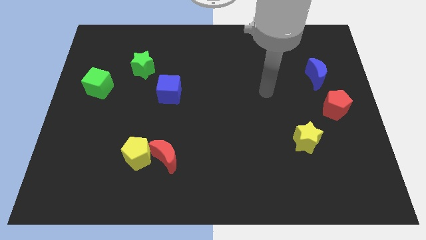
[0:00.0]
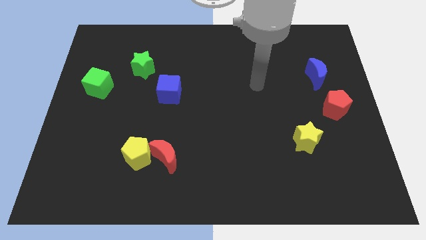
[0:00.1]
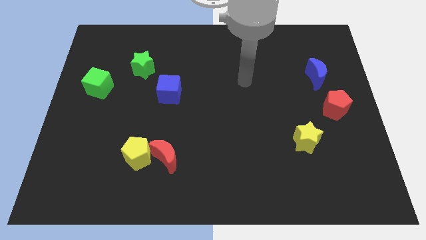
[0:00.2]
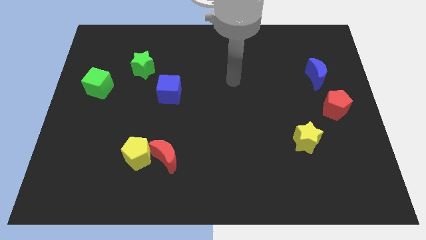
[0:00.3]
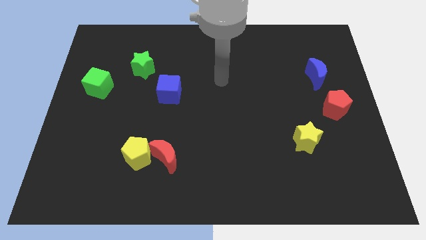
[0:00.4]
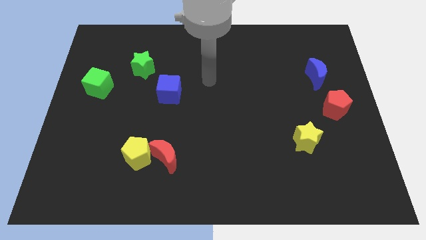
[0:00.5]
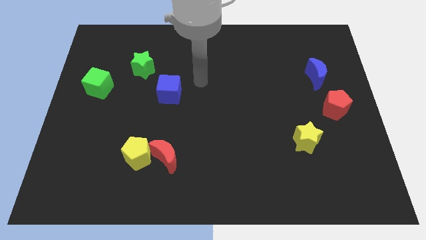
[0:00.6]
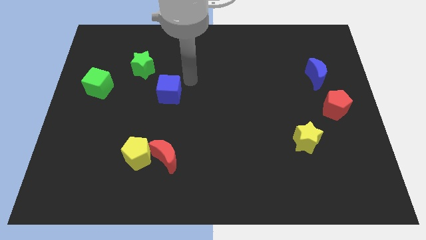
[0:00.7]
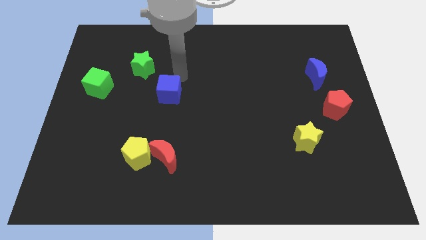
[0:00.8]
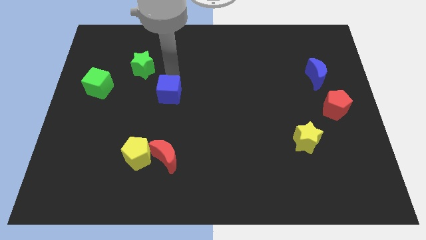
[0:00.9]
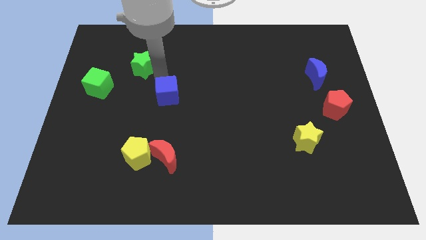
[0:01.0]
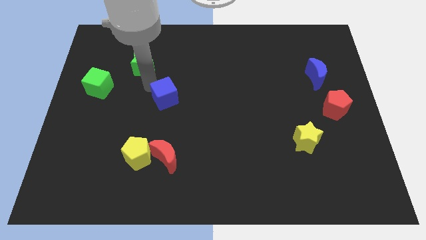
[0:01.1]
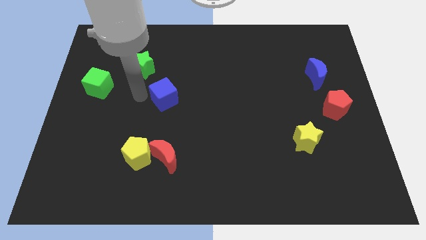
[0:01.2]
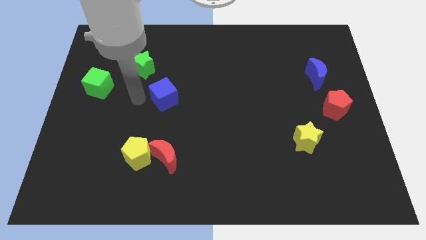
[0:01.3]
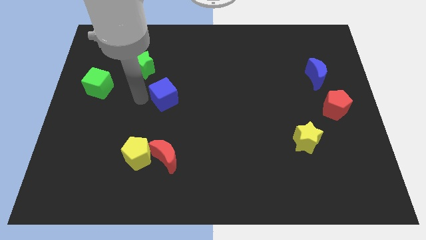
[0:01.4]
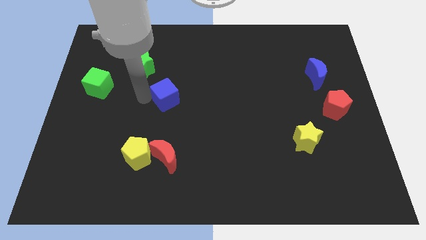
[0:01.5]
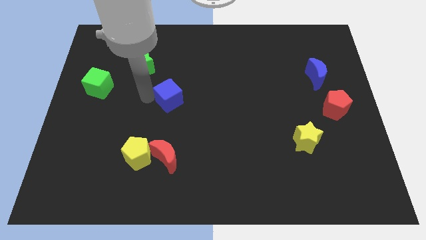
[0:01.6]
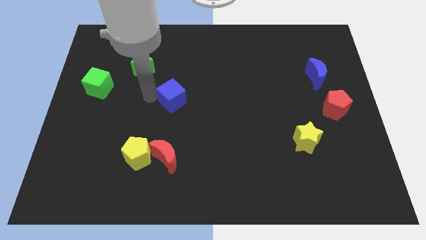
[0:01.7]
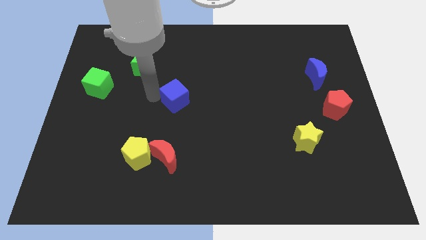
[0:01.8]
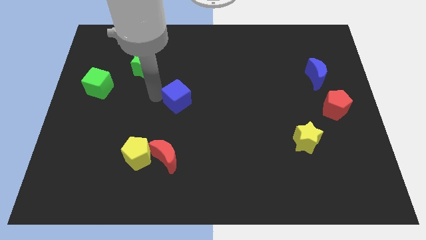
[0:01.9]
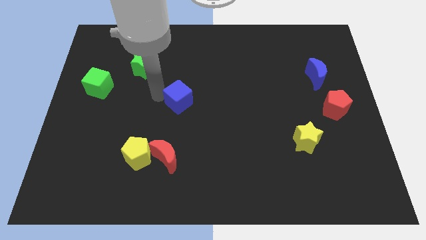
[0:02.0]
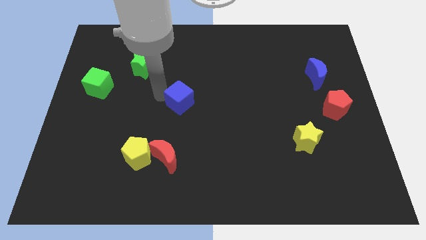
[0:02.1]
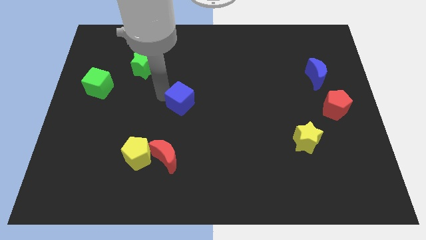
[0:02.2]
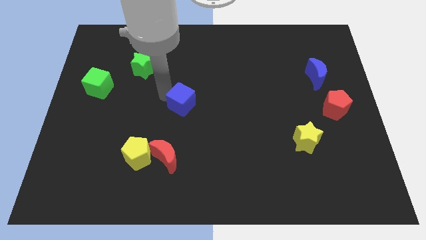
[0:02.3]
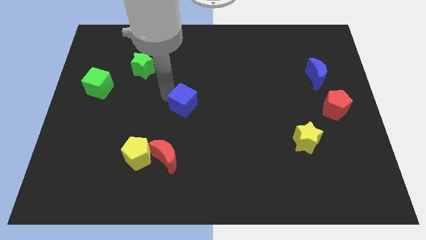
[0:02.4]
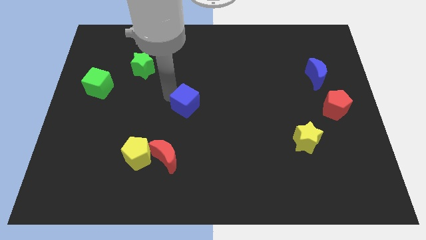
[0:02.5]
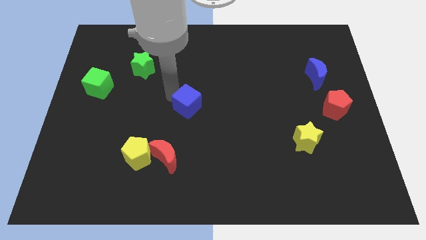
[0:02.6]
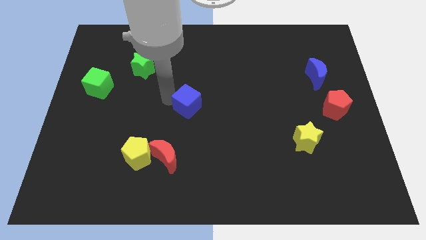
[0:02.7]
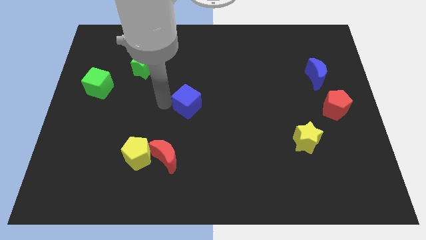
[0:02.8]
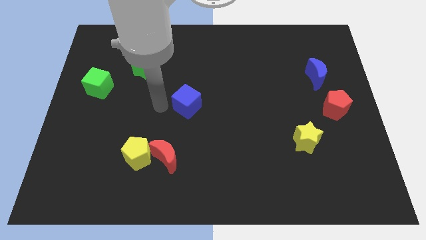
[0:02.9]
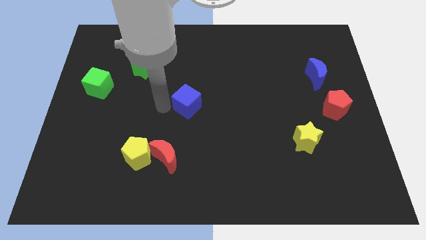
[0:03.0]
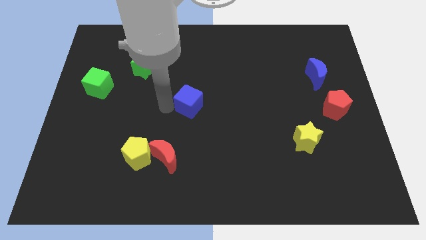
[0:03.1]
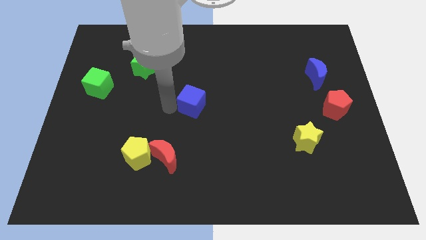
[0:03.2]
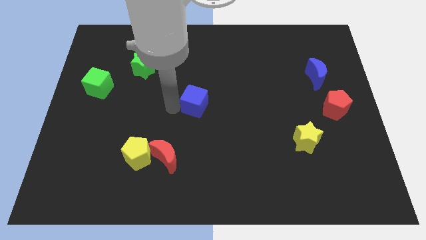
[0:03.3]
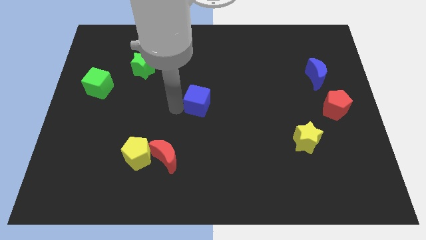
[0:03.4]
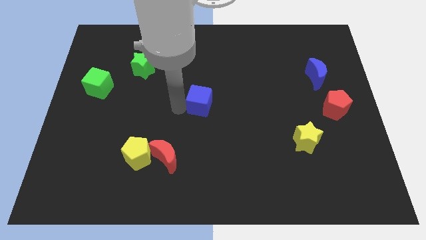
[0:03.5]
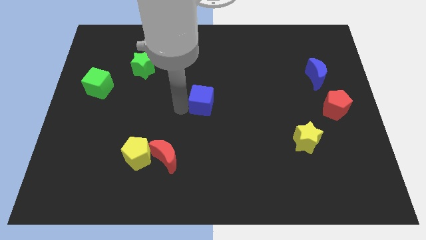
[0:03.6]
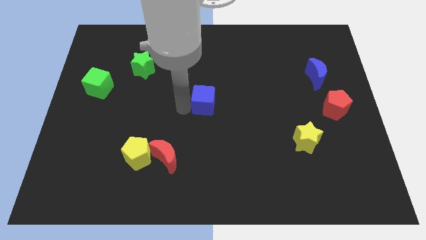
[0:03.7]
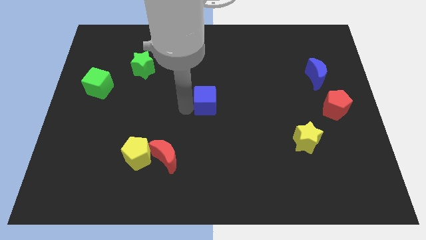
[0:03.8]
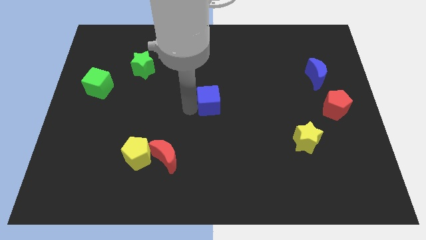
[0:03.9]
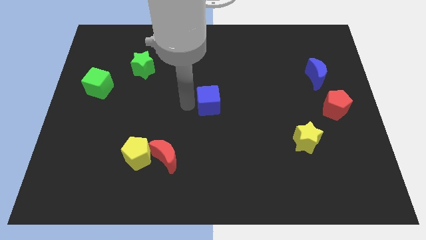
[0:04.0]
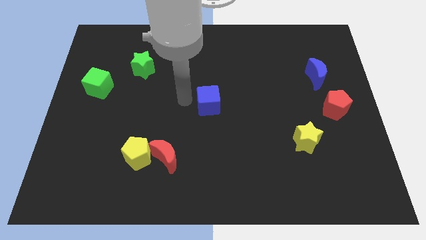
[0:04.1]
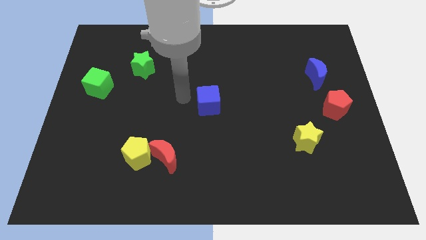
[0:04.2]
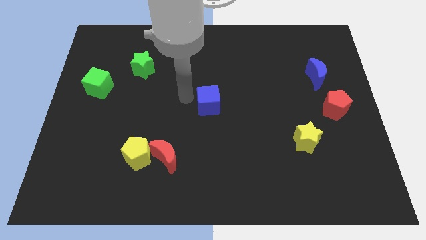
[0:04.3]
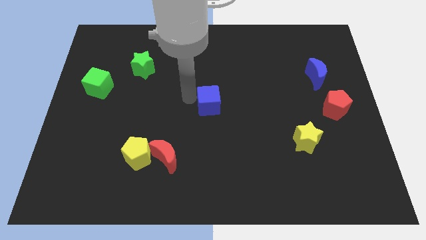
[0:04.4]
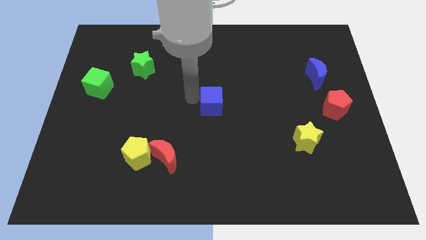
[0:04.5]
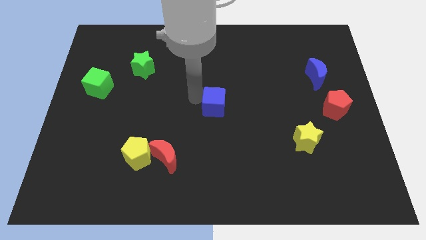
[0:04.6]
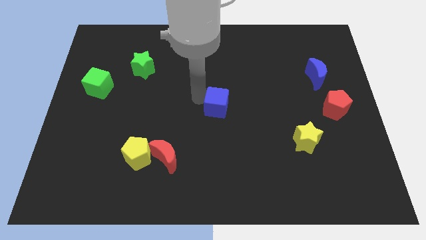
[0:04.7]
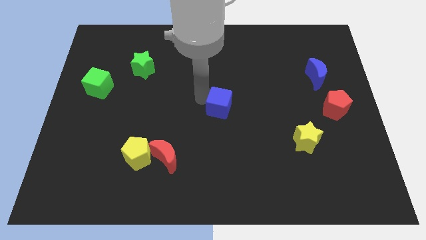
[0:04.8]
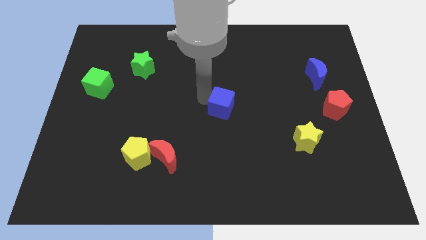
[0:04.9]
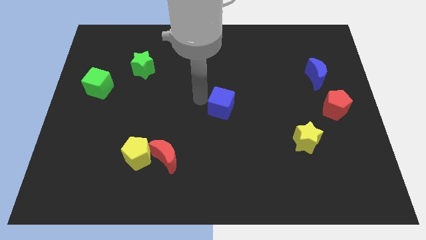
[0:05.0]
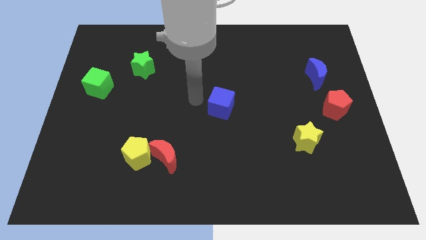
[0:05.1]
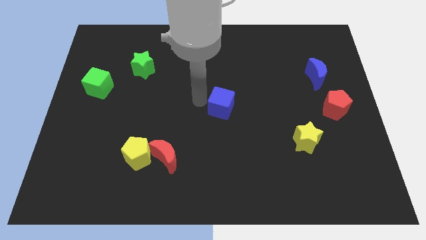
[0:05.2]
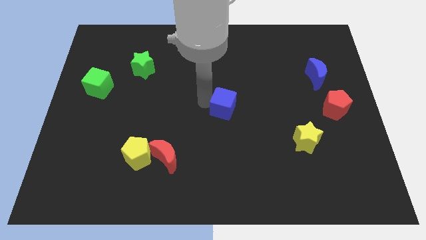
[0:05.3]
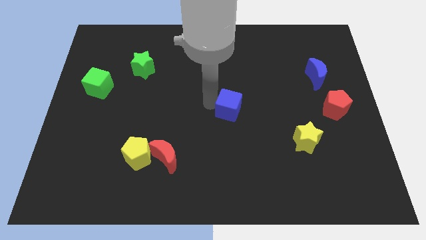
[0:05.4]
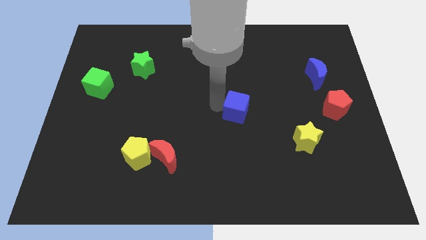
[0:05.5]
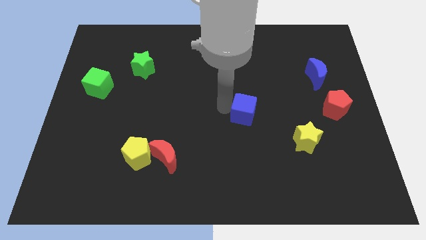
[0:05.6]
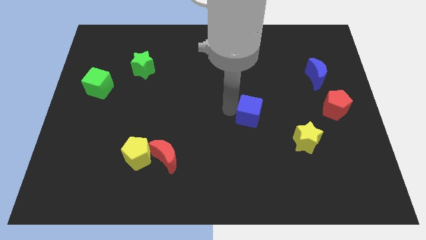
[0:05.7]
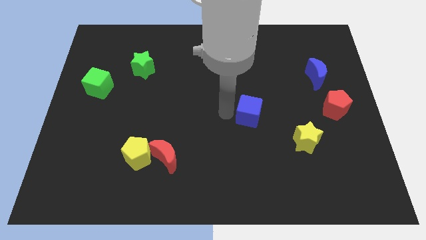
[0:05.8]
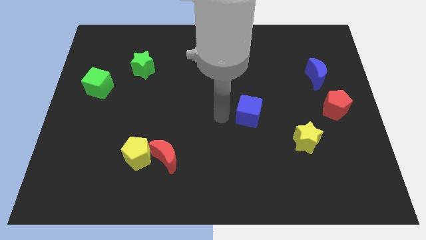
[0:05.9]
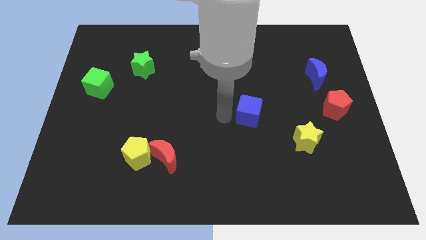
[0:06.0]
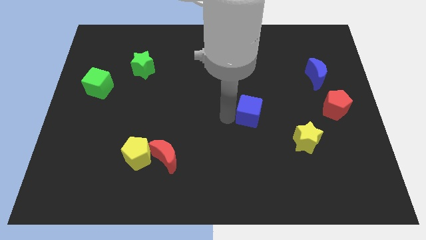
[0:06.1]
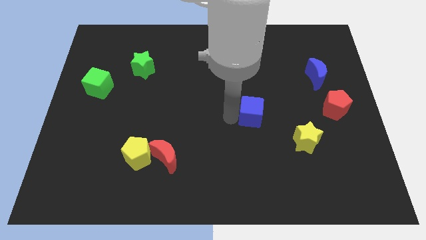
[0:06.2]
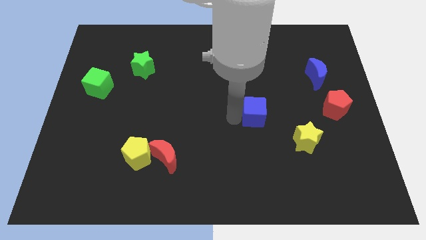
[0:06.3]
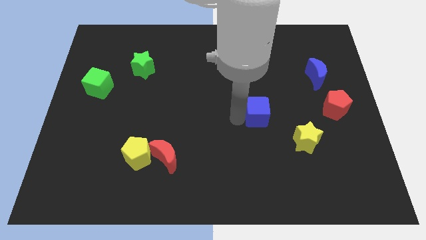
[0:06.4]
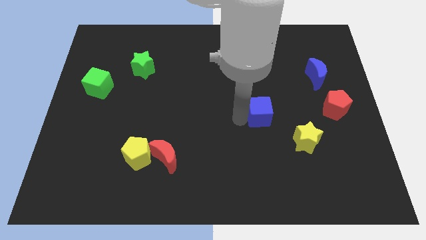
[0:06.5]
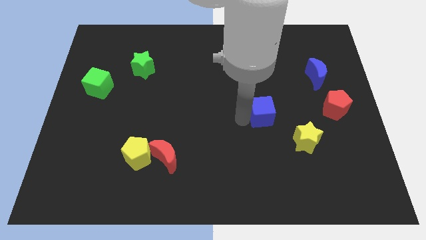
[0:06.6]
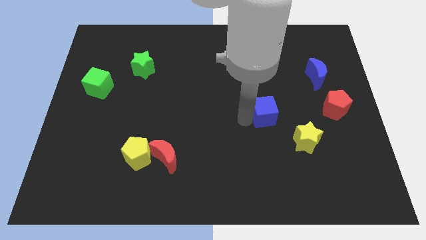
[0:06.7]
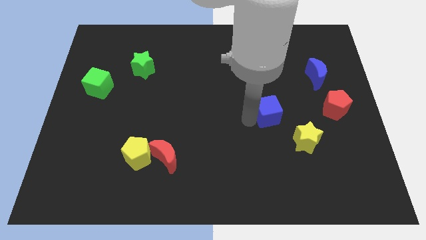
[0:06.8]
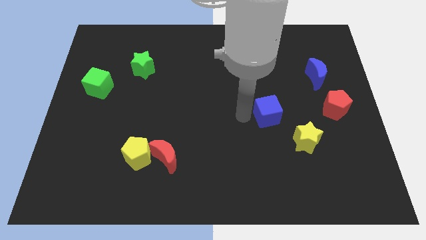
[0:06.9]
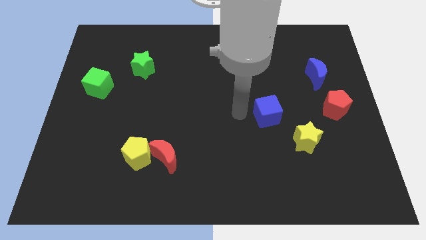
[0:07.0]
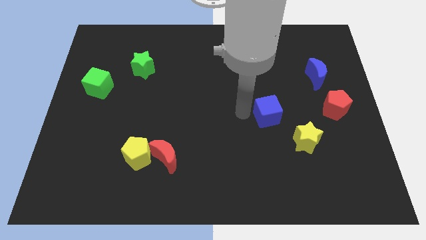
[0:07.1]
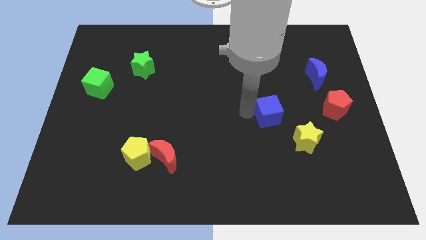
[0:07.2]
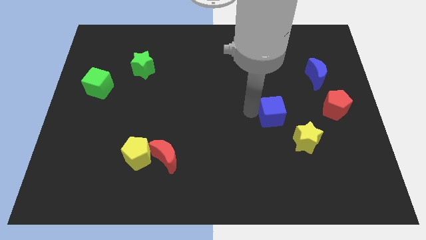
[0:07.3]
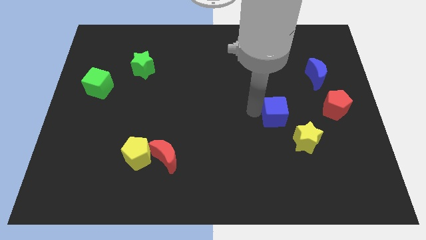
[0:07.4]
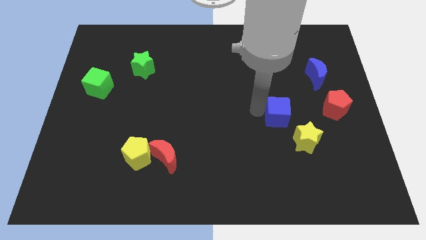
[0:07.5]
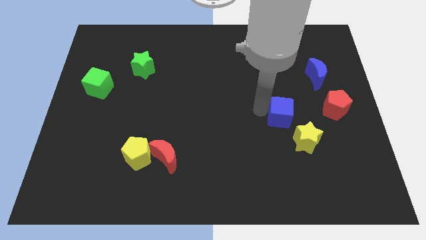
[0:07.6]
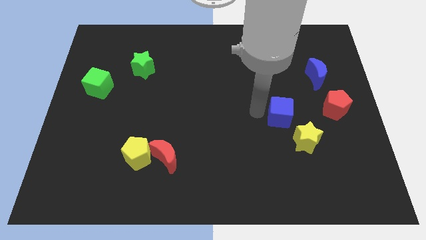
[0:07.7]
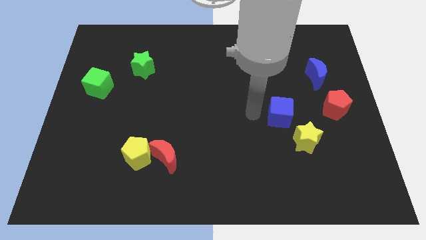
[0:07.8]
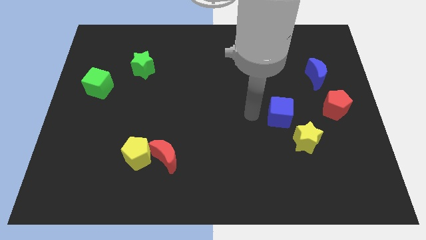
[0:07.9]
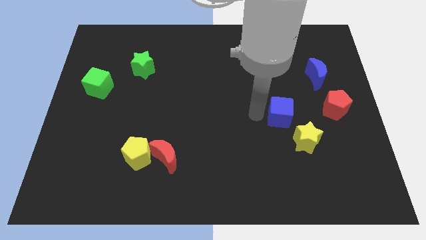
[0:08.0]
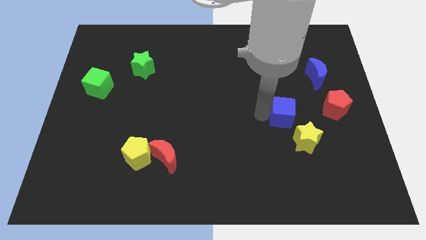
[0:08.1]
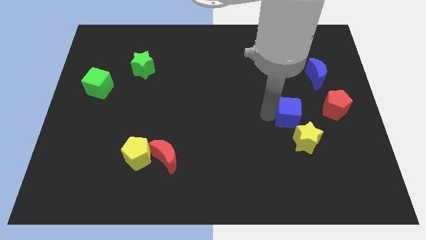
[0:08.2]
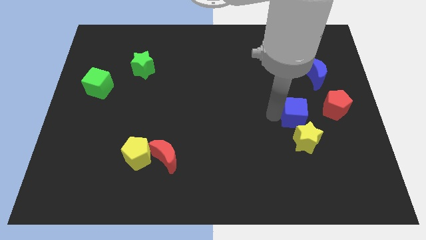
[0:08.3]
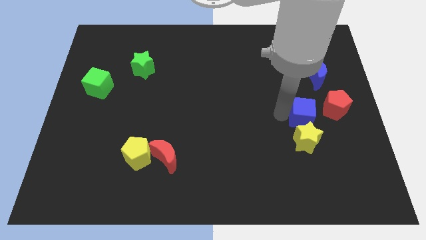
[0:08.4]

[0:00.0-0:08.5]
put the blue cube diagonally up and to the right of the yellow star
